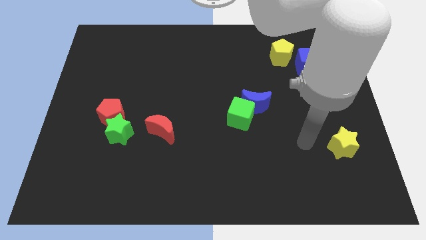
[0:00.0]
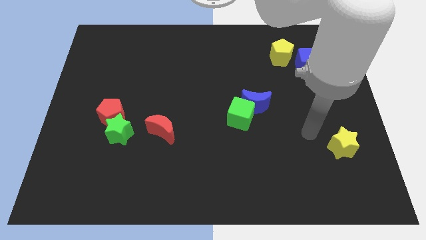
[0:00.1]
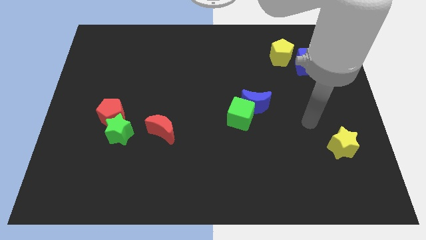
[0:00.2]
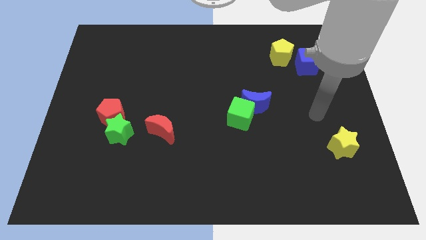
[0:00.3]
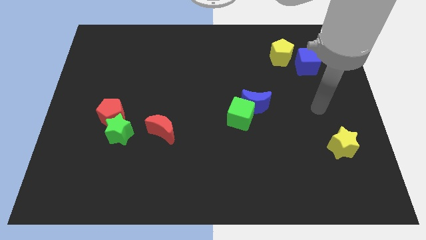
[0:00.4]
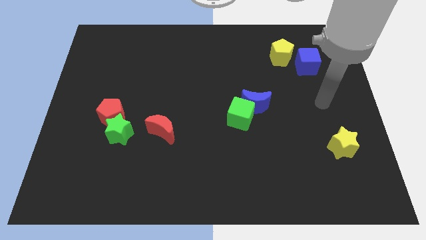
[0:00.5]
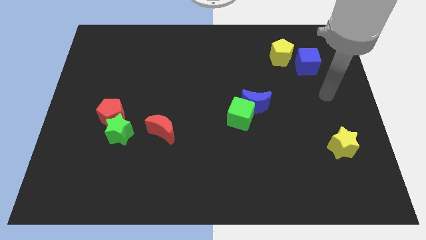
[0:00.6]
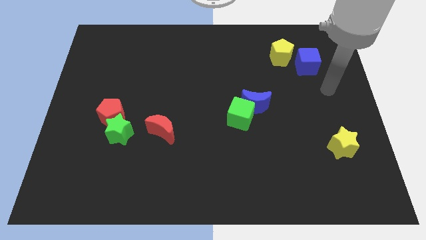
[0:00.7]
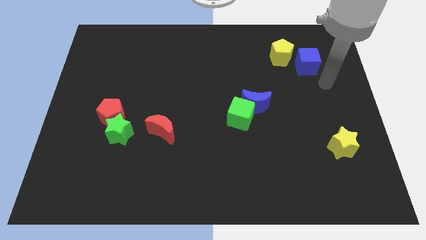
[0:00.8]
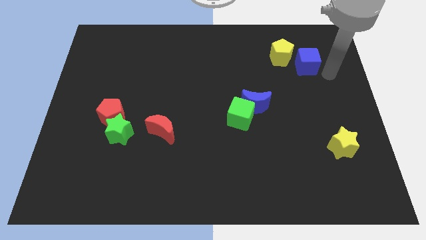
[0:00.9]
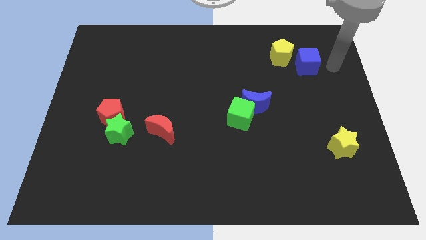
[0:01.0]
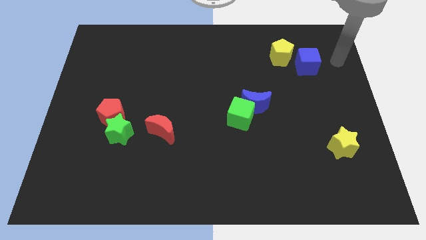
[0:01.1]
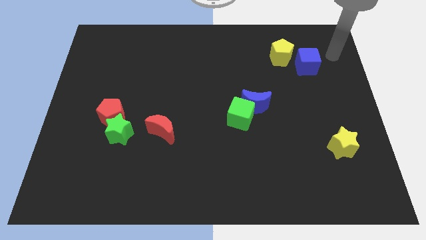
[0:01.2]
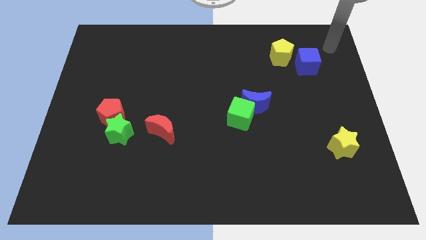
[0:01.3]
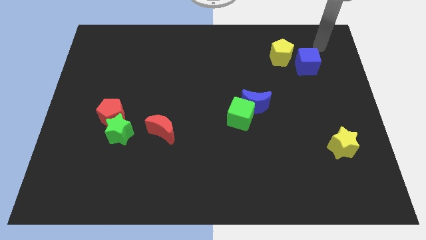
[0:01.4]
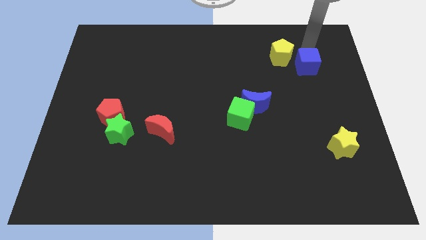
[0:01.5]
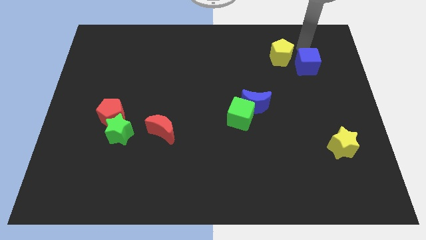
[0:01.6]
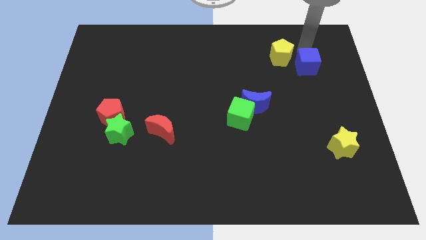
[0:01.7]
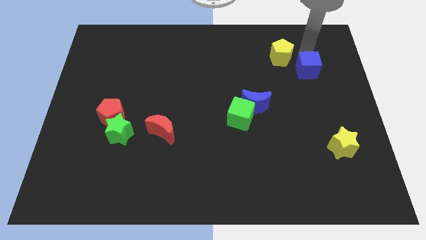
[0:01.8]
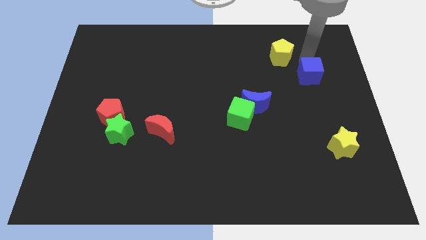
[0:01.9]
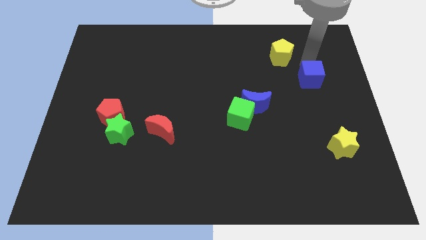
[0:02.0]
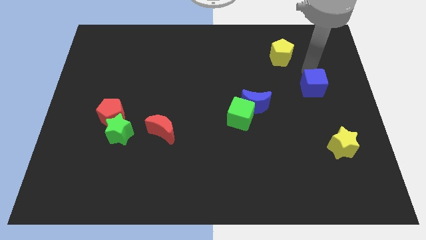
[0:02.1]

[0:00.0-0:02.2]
slide the blue cube downwards slightly

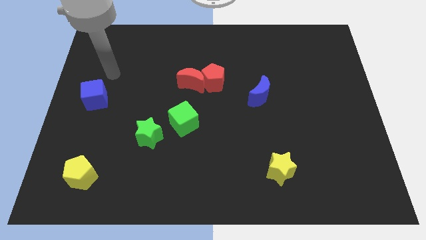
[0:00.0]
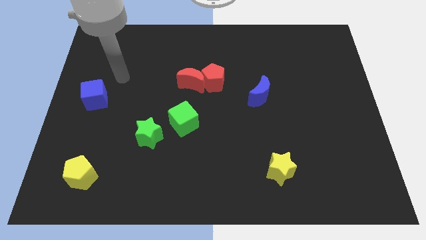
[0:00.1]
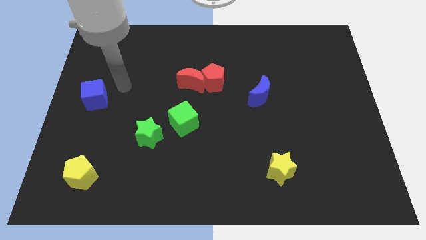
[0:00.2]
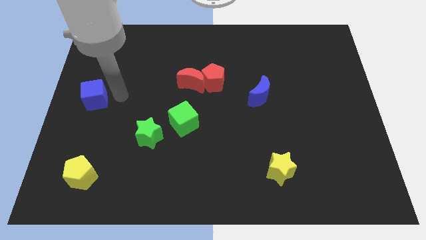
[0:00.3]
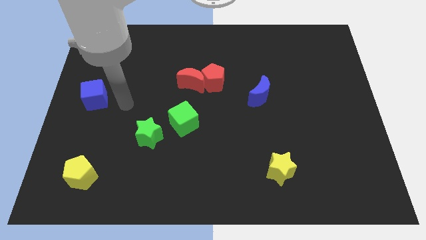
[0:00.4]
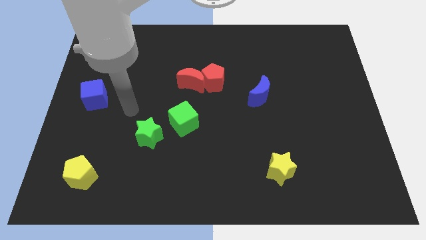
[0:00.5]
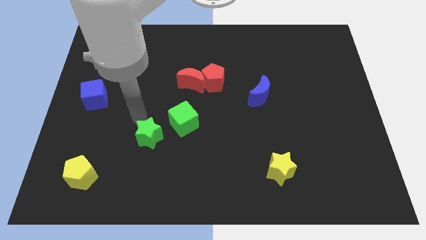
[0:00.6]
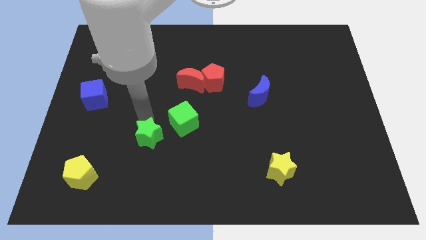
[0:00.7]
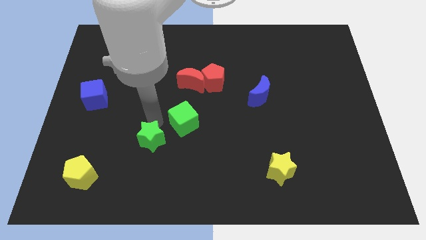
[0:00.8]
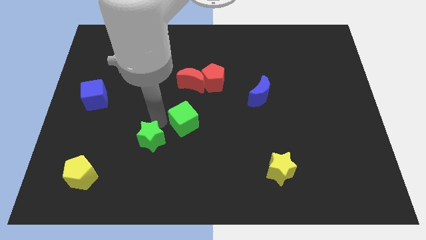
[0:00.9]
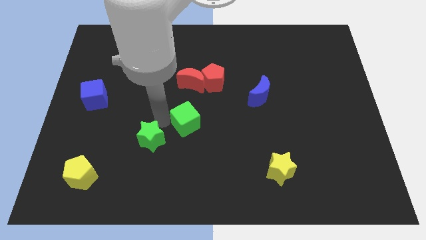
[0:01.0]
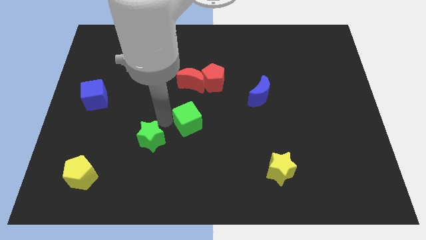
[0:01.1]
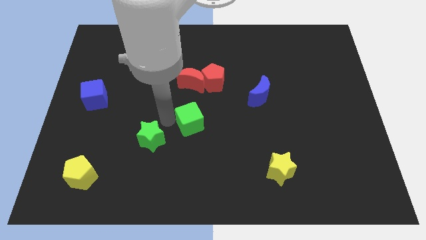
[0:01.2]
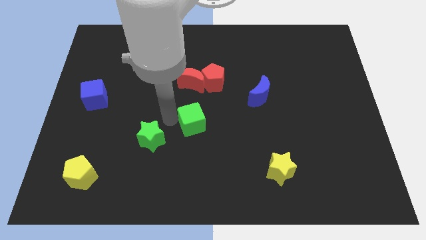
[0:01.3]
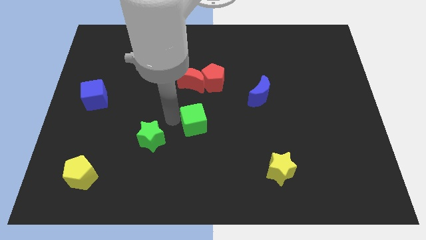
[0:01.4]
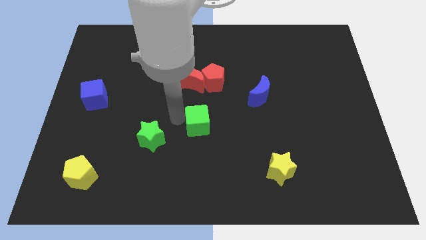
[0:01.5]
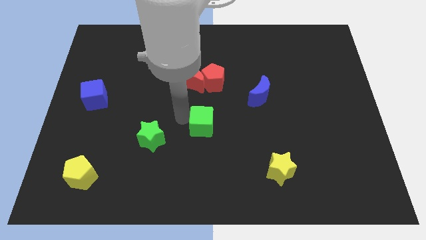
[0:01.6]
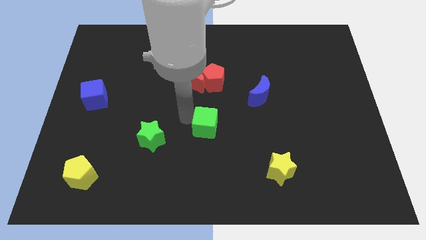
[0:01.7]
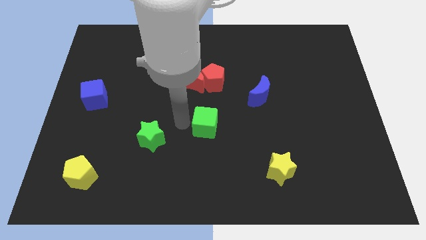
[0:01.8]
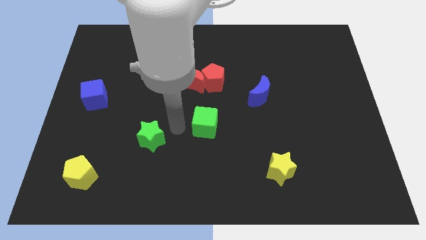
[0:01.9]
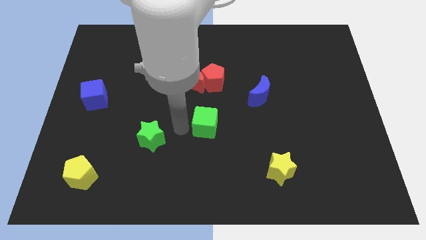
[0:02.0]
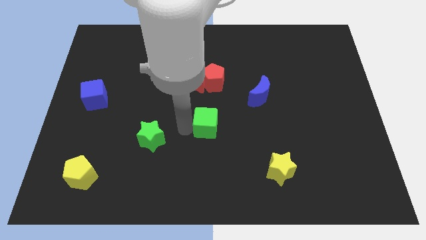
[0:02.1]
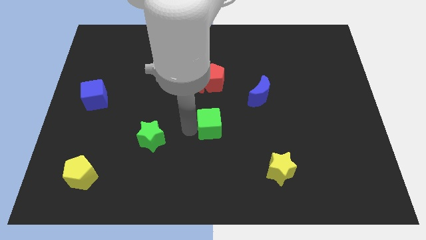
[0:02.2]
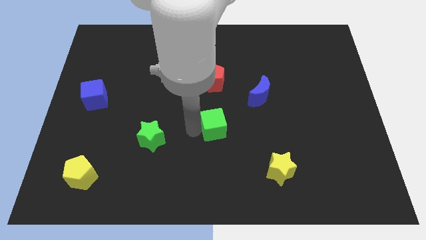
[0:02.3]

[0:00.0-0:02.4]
push the green cube right a little bit

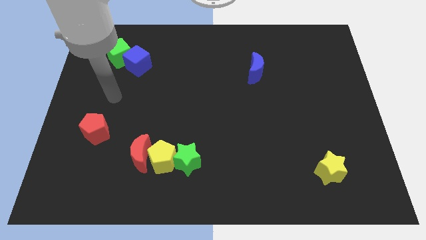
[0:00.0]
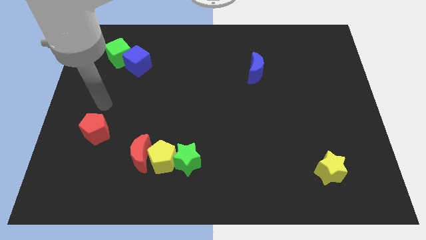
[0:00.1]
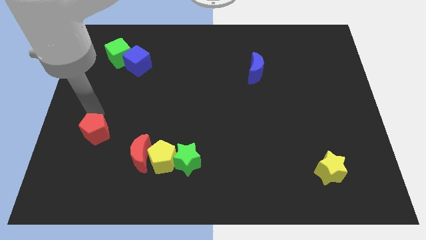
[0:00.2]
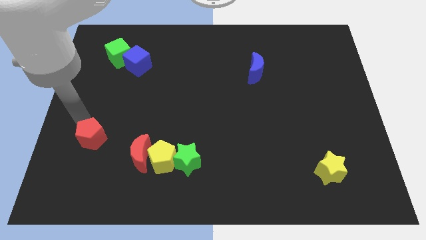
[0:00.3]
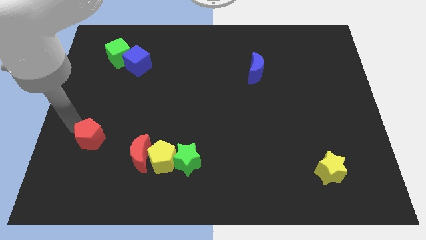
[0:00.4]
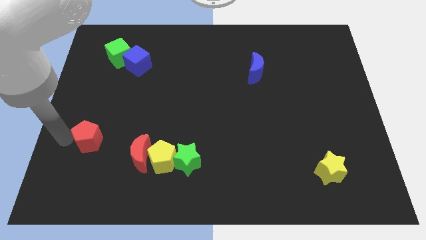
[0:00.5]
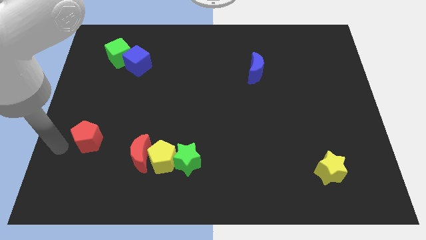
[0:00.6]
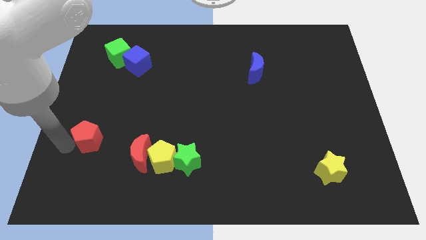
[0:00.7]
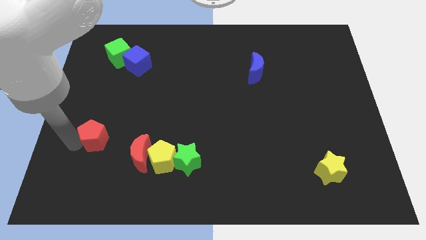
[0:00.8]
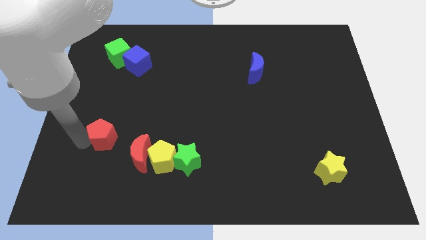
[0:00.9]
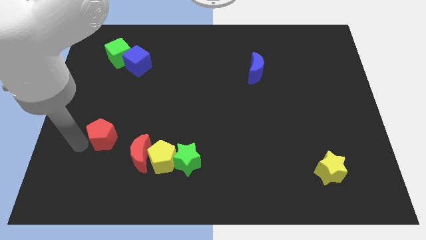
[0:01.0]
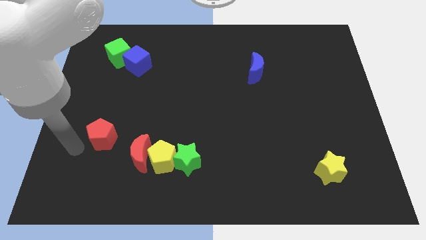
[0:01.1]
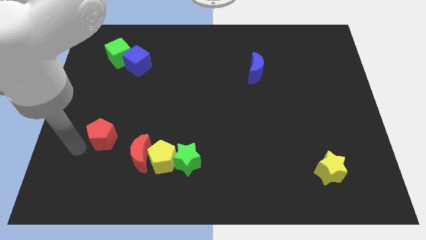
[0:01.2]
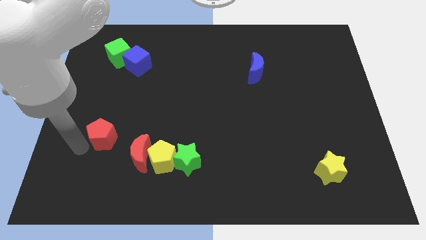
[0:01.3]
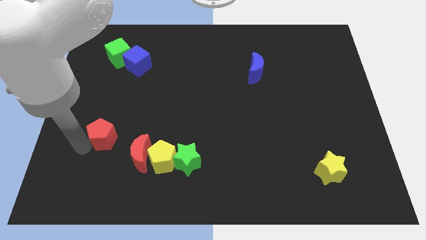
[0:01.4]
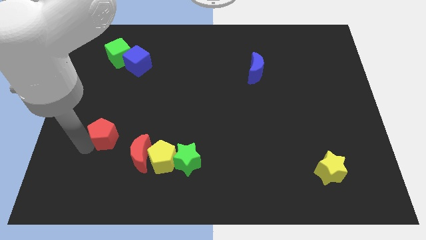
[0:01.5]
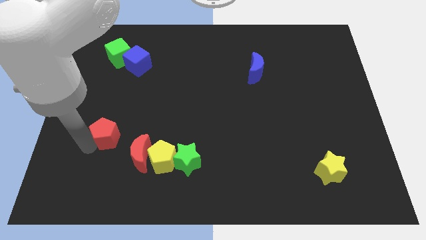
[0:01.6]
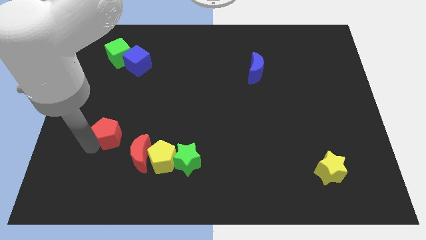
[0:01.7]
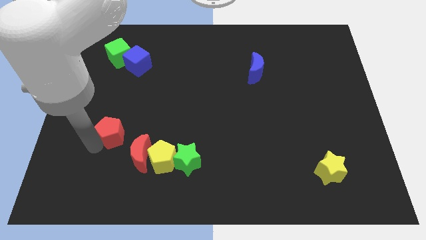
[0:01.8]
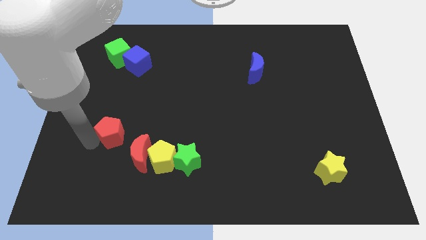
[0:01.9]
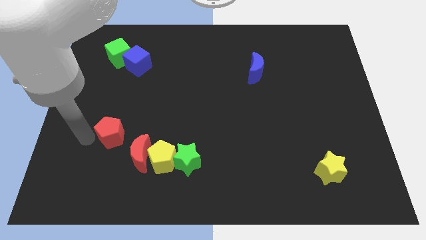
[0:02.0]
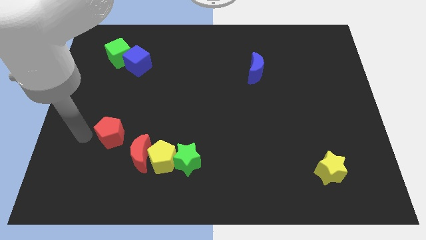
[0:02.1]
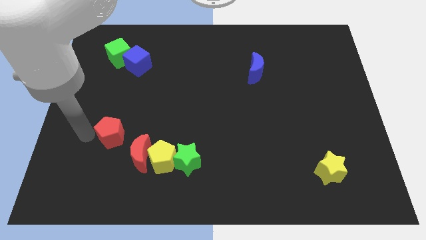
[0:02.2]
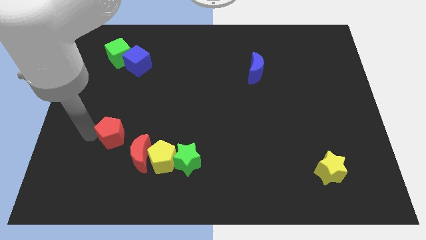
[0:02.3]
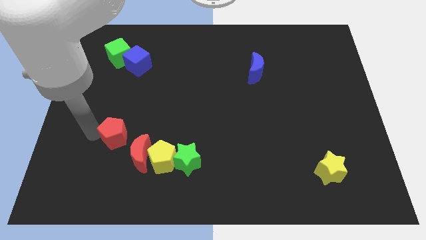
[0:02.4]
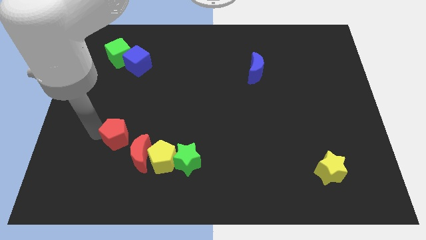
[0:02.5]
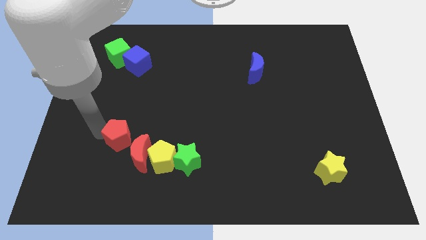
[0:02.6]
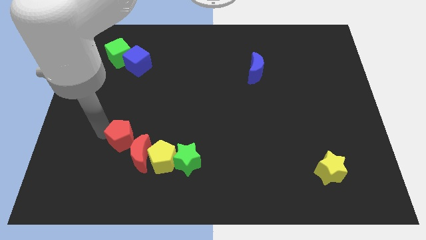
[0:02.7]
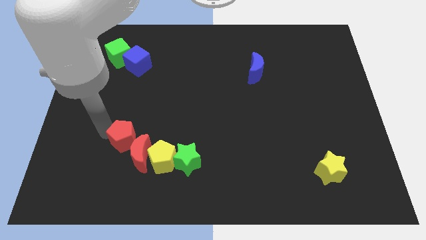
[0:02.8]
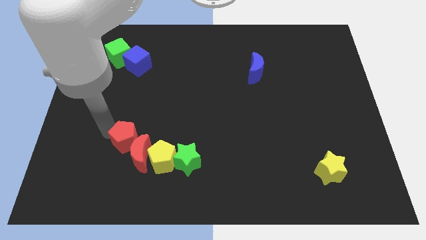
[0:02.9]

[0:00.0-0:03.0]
push the red pentagon somewhat to the right

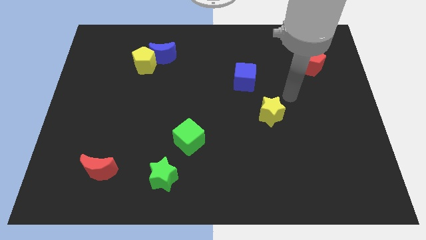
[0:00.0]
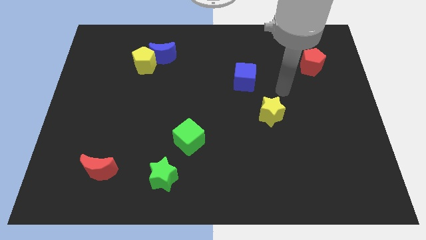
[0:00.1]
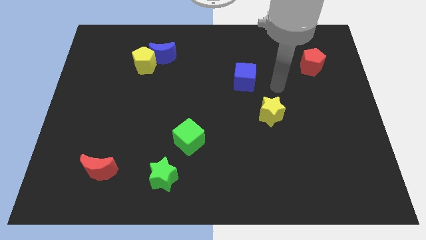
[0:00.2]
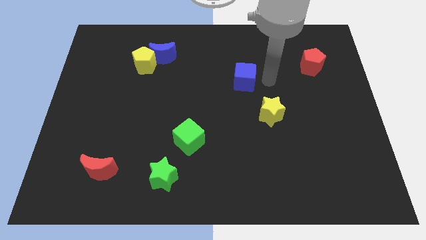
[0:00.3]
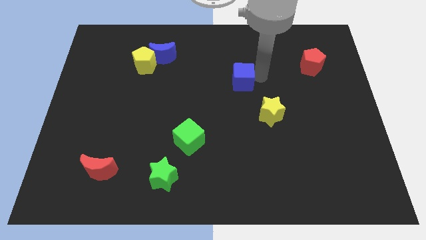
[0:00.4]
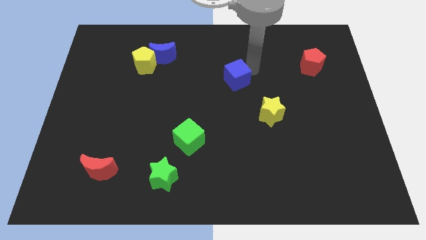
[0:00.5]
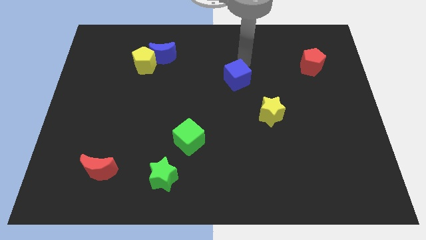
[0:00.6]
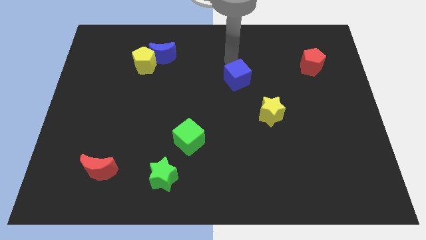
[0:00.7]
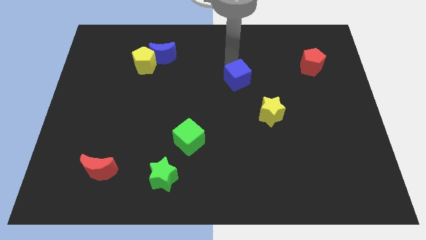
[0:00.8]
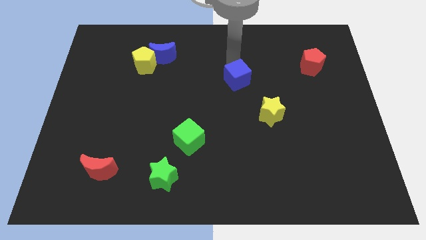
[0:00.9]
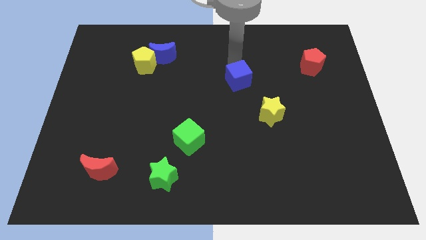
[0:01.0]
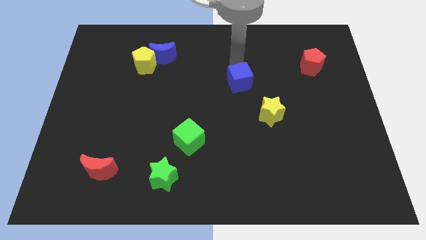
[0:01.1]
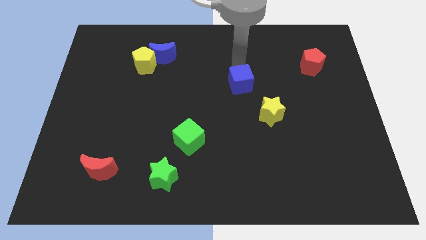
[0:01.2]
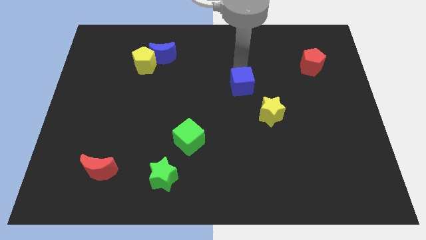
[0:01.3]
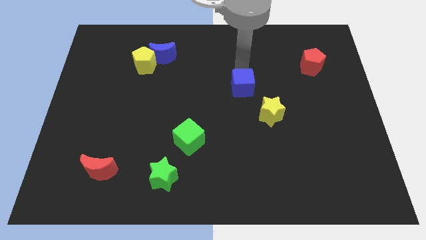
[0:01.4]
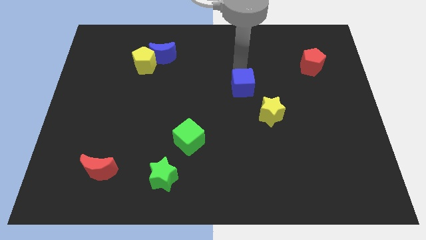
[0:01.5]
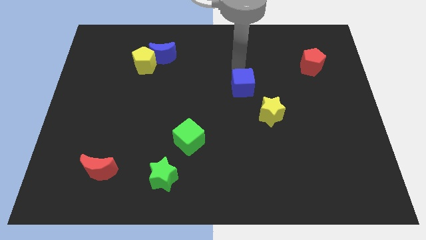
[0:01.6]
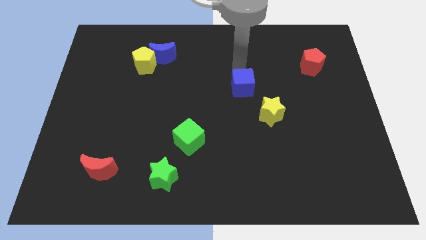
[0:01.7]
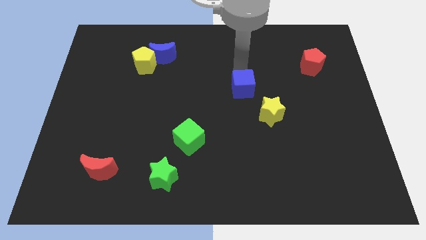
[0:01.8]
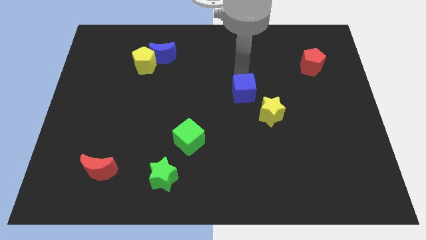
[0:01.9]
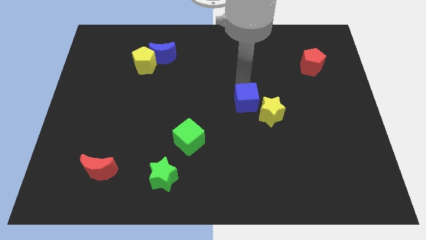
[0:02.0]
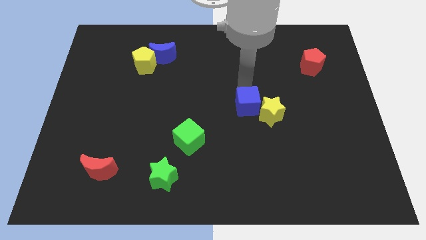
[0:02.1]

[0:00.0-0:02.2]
slightly push the blue cube down
